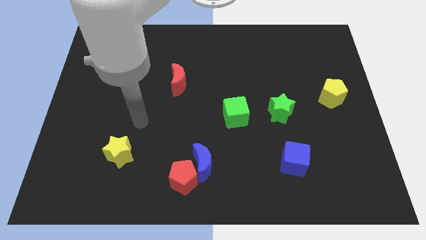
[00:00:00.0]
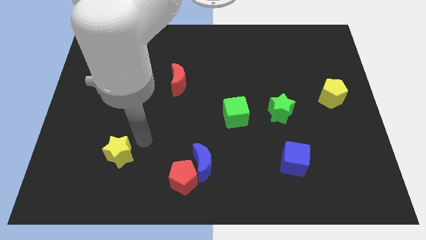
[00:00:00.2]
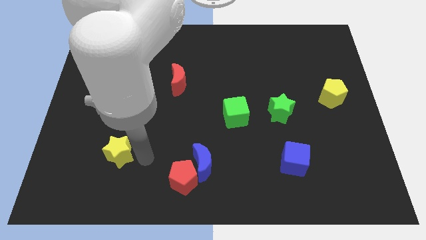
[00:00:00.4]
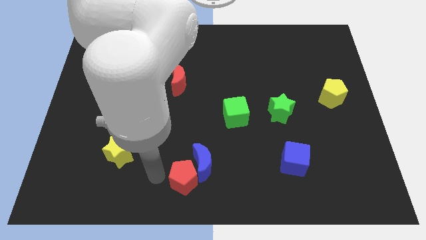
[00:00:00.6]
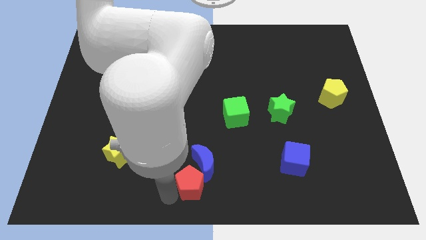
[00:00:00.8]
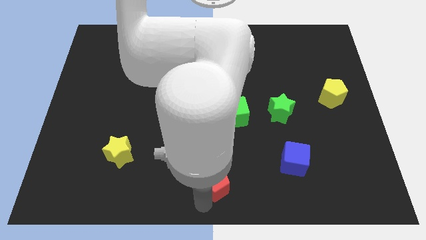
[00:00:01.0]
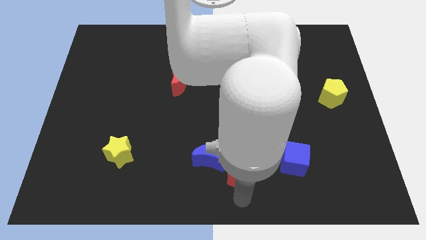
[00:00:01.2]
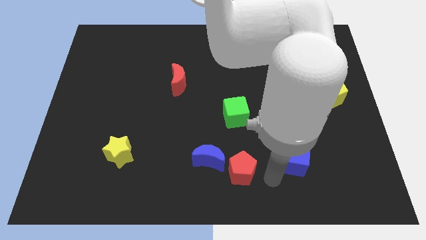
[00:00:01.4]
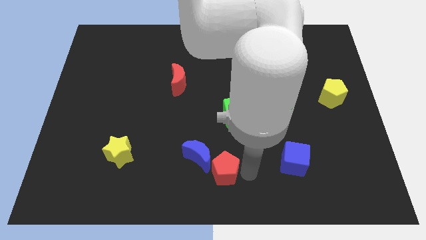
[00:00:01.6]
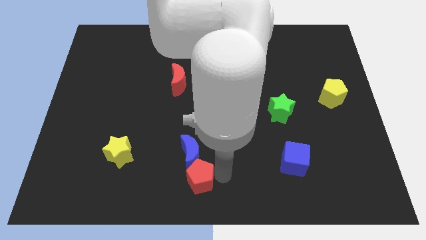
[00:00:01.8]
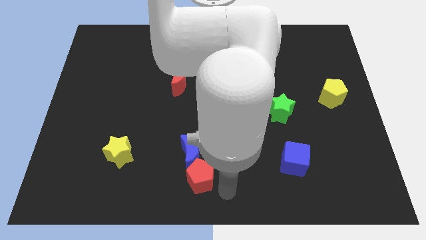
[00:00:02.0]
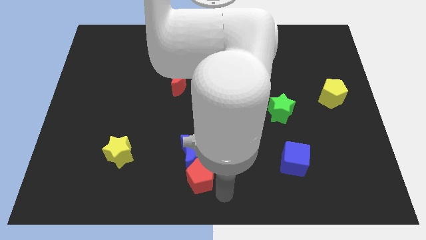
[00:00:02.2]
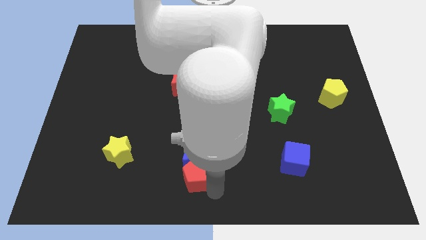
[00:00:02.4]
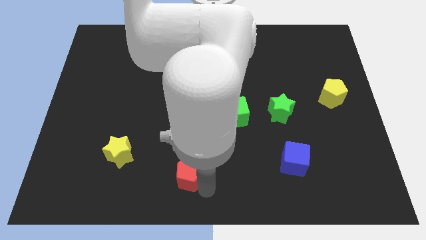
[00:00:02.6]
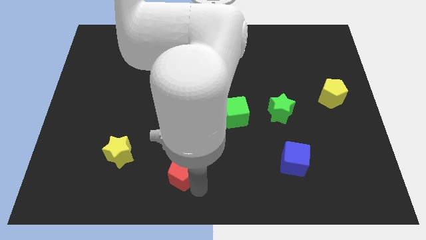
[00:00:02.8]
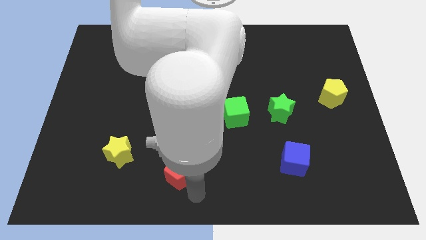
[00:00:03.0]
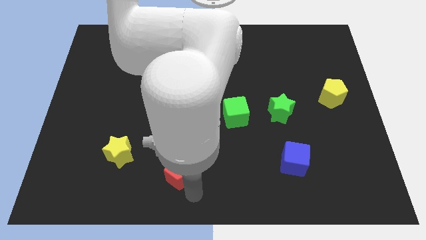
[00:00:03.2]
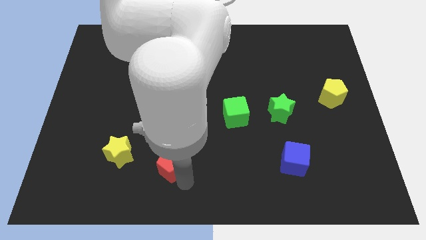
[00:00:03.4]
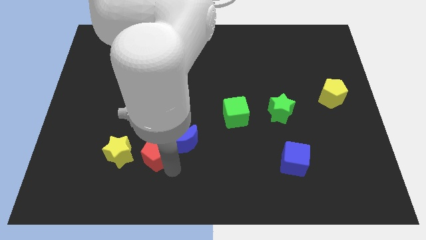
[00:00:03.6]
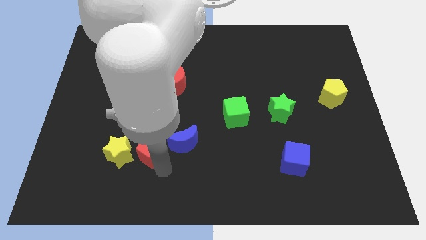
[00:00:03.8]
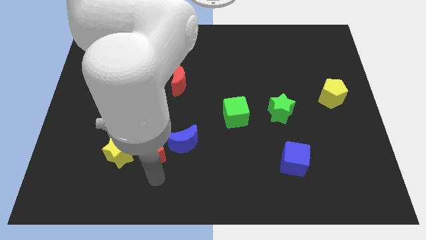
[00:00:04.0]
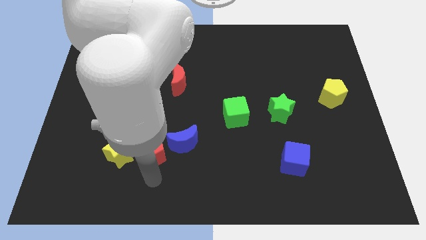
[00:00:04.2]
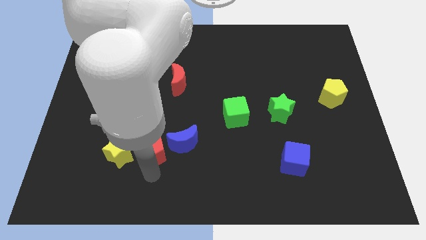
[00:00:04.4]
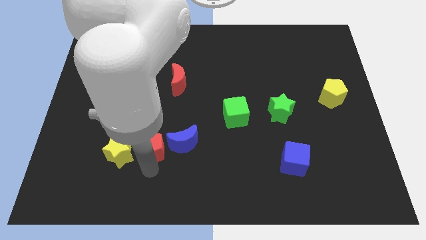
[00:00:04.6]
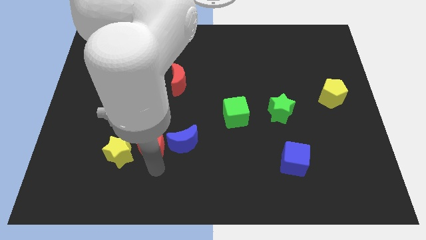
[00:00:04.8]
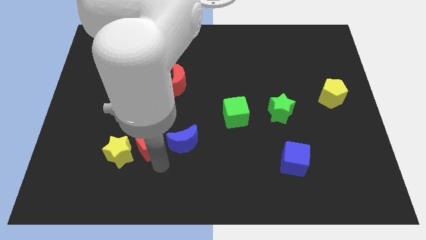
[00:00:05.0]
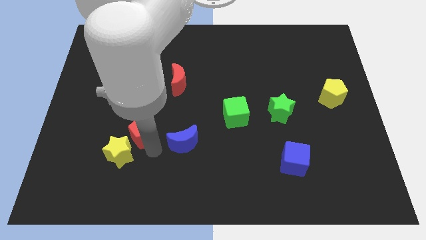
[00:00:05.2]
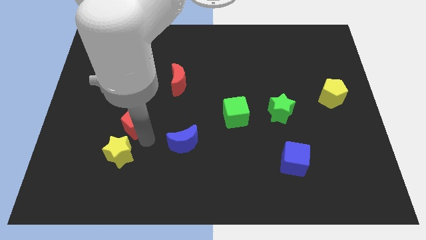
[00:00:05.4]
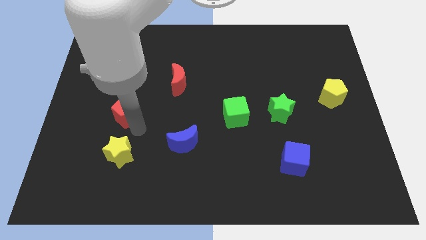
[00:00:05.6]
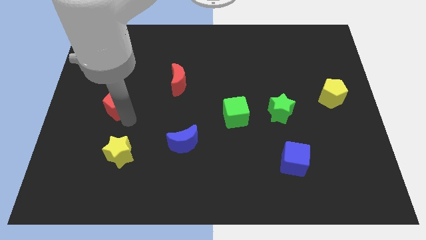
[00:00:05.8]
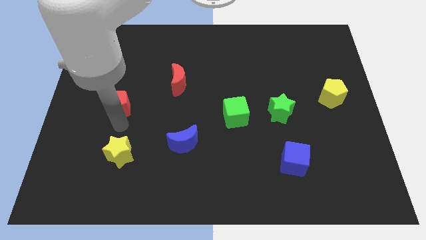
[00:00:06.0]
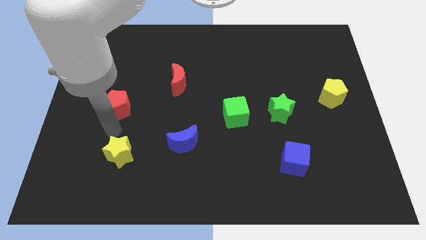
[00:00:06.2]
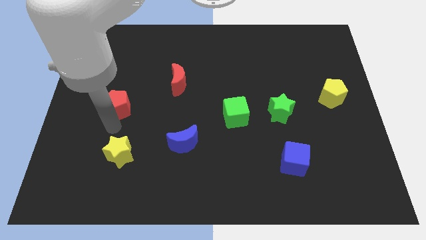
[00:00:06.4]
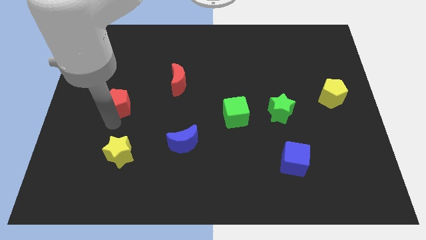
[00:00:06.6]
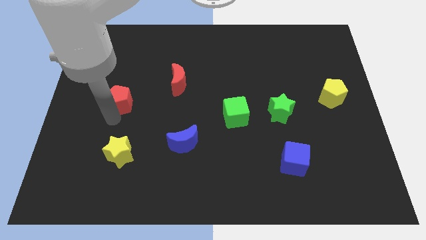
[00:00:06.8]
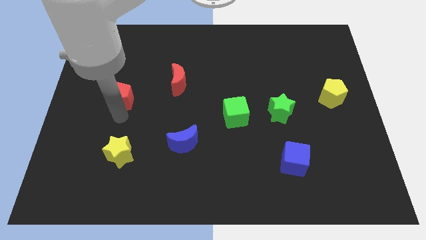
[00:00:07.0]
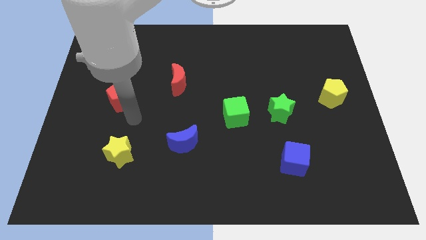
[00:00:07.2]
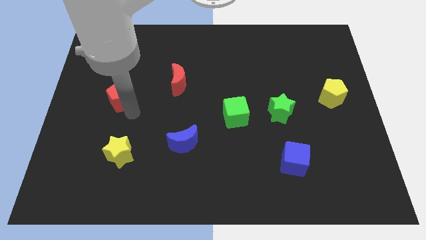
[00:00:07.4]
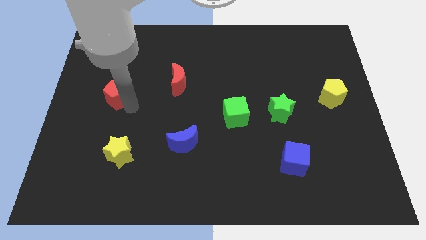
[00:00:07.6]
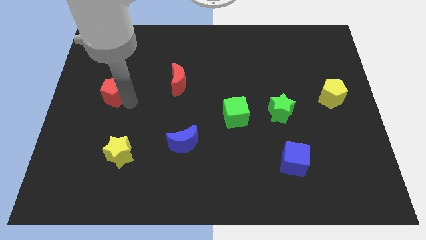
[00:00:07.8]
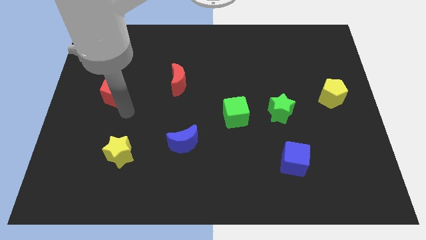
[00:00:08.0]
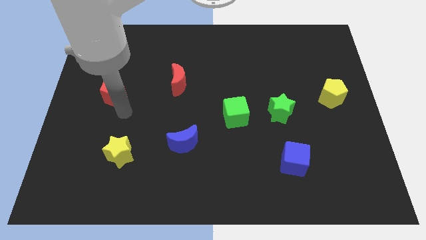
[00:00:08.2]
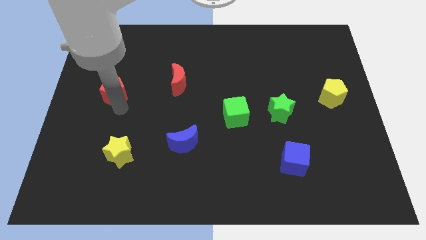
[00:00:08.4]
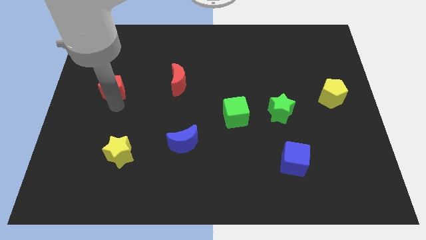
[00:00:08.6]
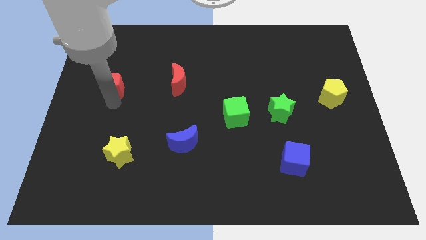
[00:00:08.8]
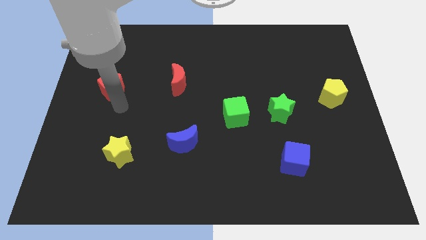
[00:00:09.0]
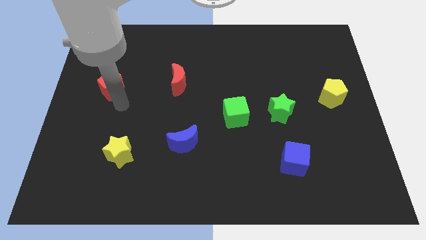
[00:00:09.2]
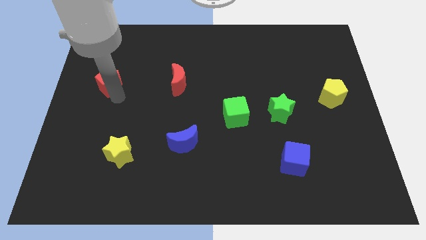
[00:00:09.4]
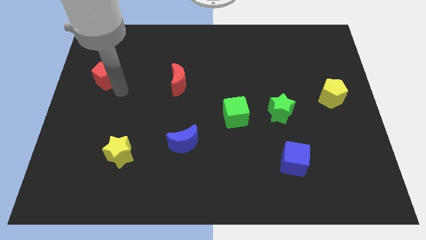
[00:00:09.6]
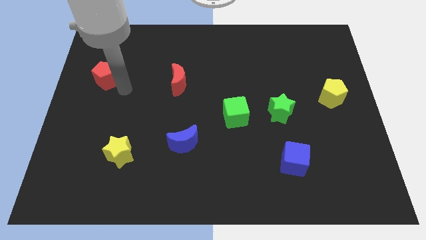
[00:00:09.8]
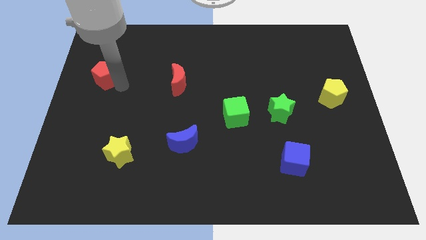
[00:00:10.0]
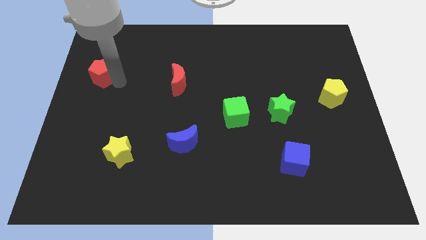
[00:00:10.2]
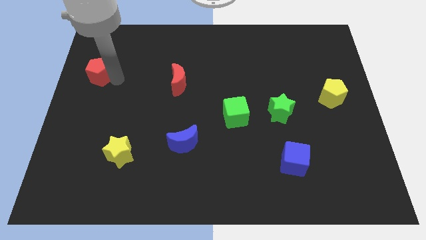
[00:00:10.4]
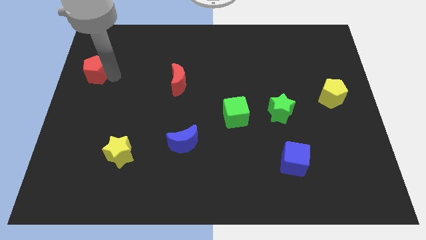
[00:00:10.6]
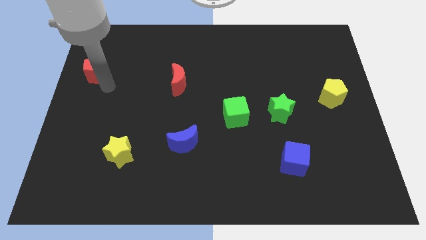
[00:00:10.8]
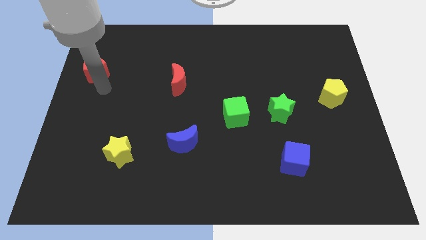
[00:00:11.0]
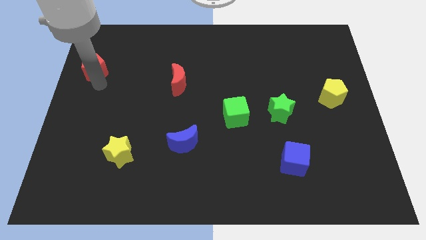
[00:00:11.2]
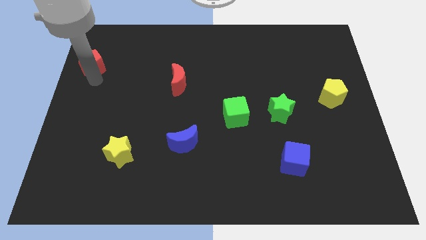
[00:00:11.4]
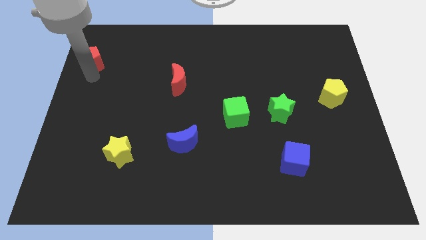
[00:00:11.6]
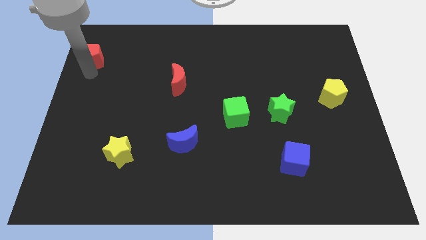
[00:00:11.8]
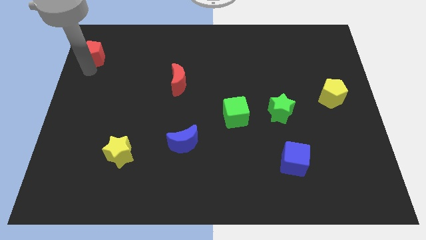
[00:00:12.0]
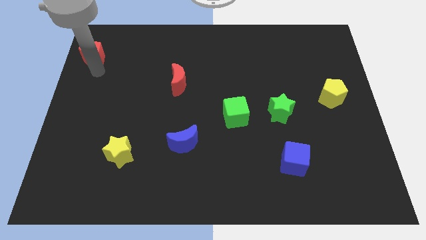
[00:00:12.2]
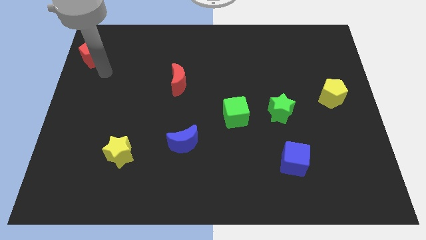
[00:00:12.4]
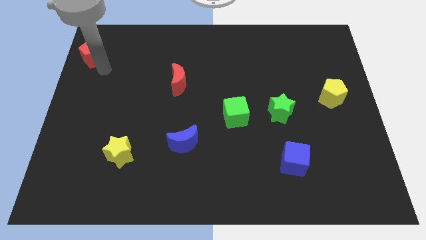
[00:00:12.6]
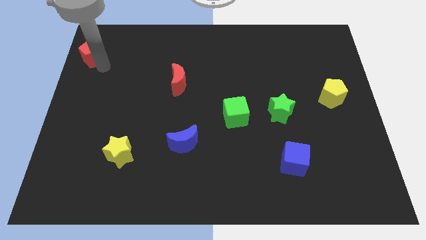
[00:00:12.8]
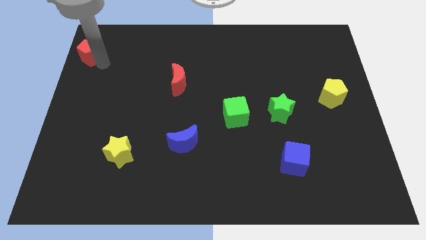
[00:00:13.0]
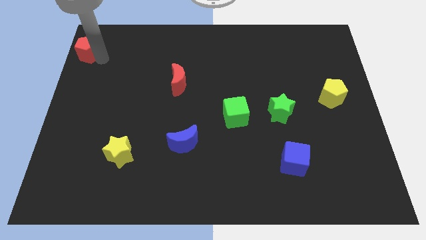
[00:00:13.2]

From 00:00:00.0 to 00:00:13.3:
move the red pentagon to the top left of the board

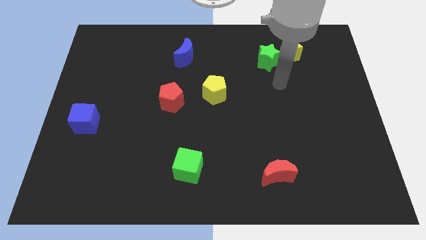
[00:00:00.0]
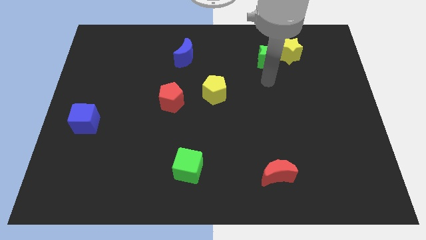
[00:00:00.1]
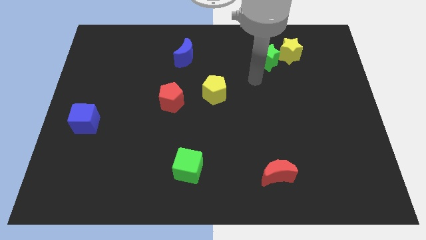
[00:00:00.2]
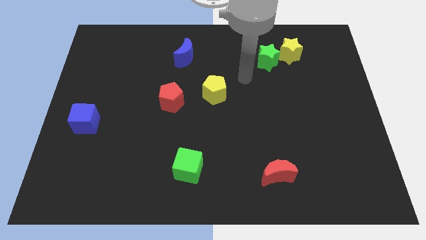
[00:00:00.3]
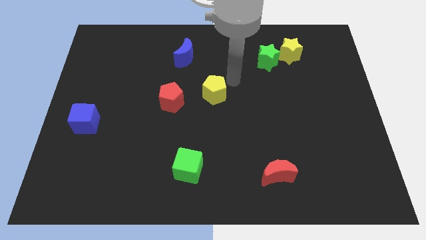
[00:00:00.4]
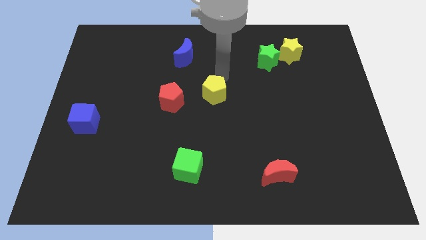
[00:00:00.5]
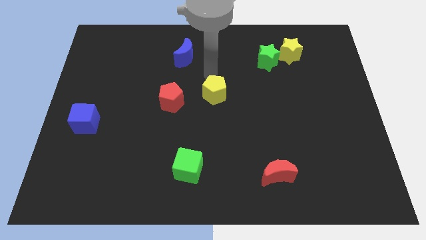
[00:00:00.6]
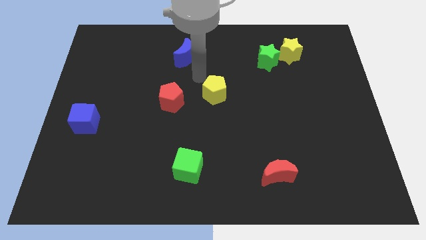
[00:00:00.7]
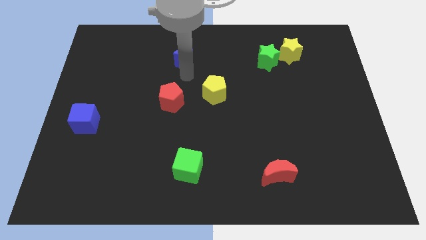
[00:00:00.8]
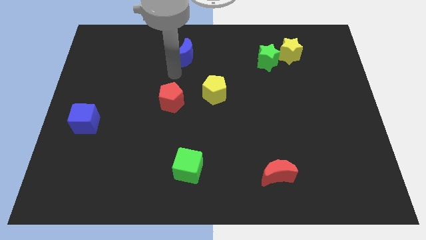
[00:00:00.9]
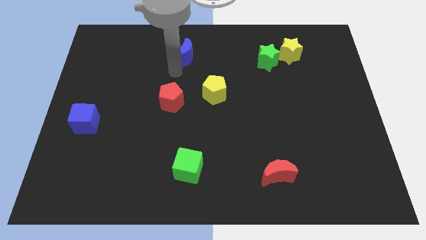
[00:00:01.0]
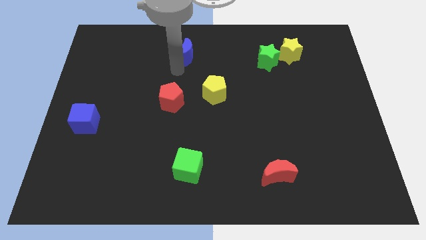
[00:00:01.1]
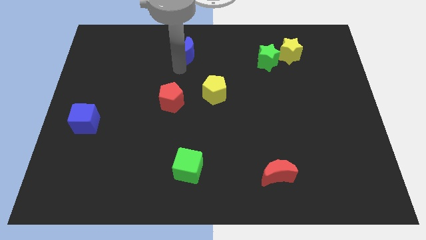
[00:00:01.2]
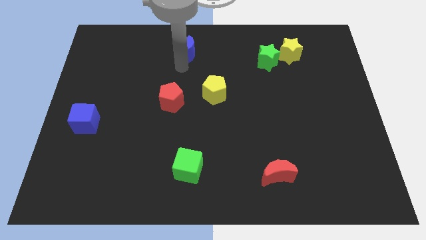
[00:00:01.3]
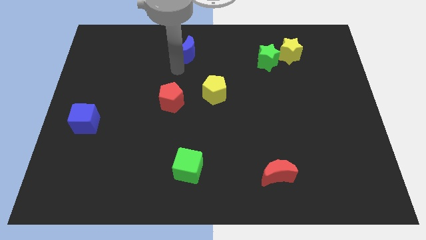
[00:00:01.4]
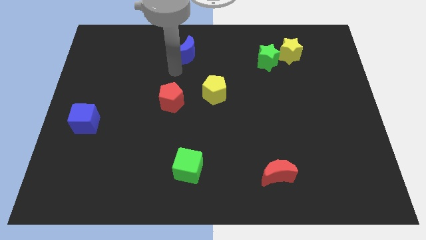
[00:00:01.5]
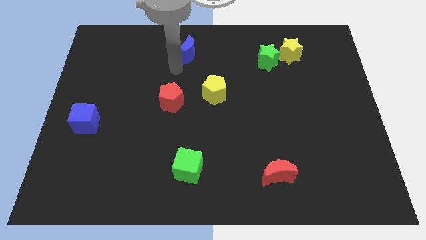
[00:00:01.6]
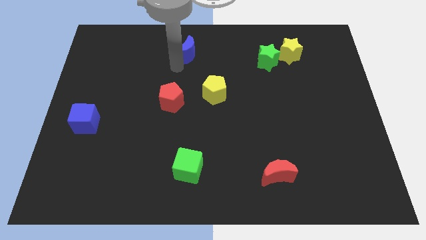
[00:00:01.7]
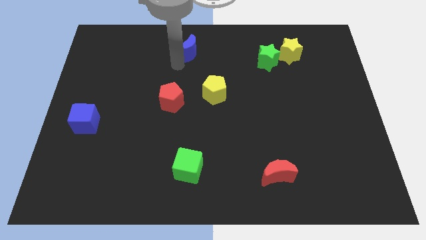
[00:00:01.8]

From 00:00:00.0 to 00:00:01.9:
move the blue moon to the top side
